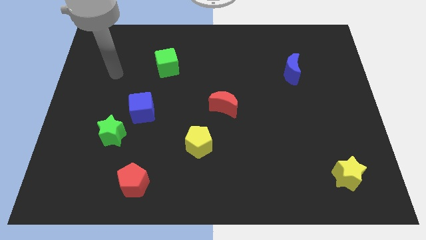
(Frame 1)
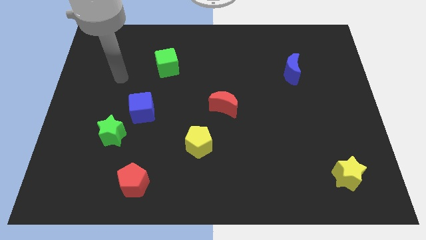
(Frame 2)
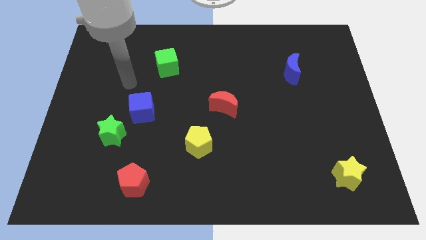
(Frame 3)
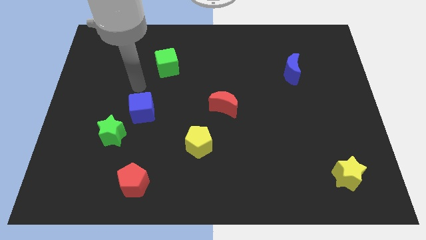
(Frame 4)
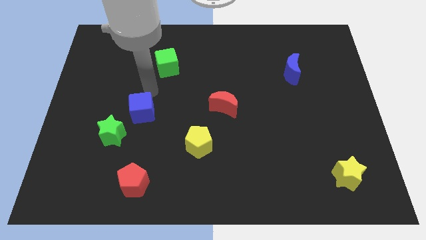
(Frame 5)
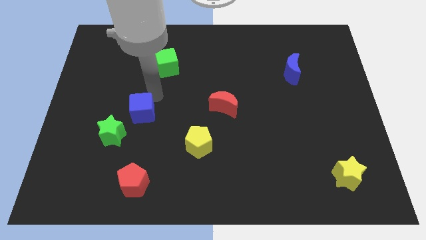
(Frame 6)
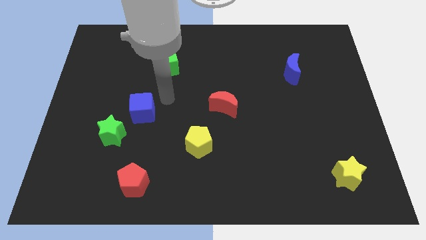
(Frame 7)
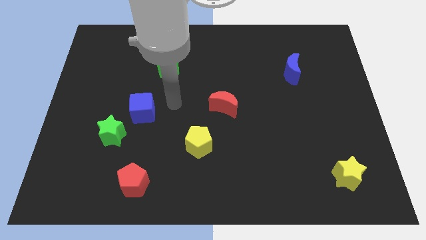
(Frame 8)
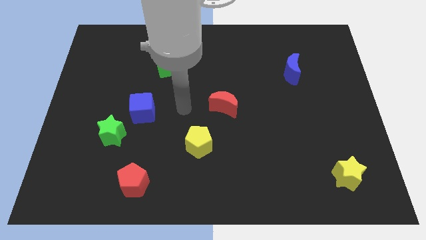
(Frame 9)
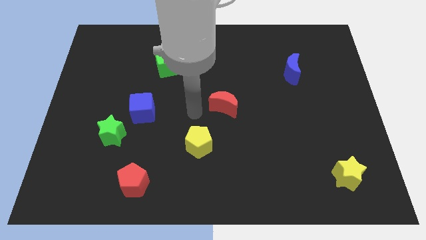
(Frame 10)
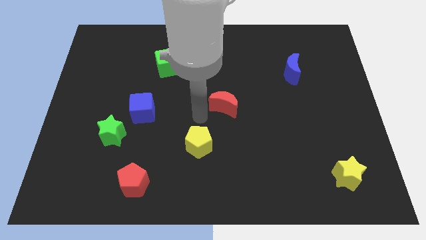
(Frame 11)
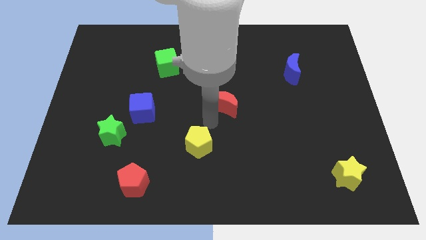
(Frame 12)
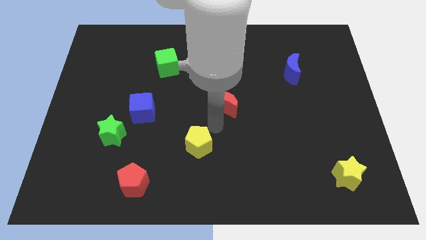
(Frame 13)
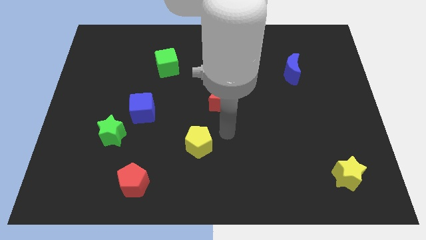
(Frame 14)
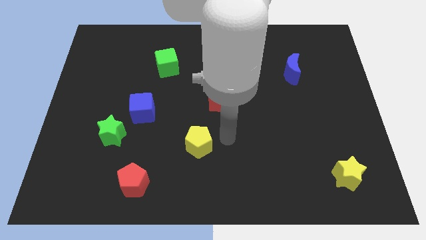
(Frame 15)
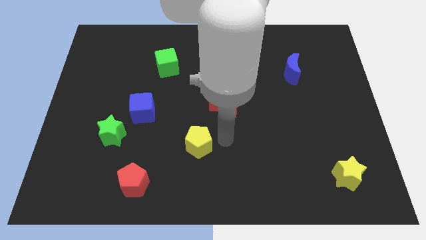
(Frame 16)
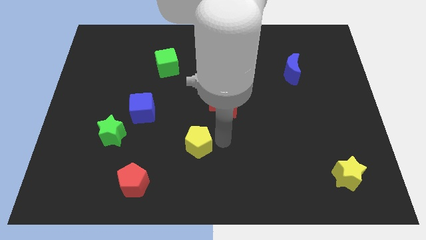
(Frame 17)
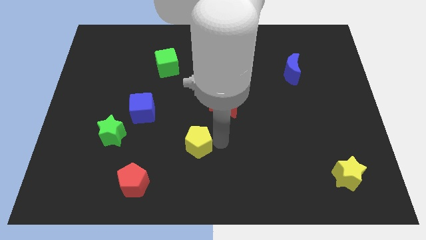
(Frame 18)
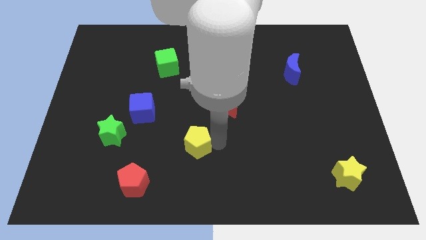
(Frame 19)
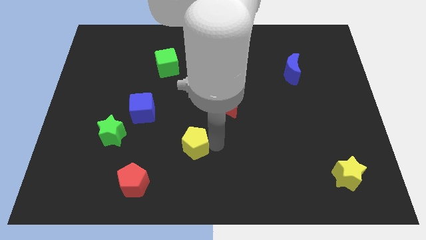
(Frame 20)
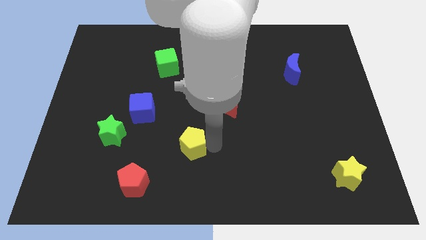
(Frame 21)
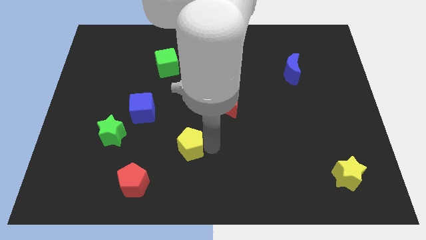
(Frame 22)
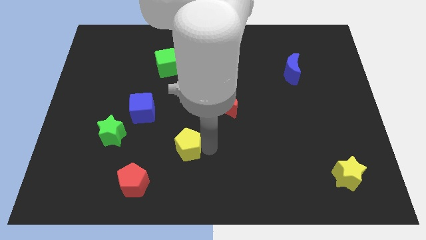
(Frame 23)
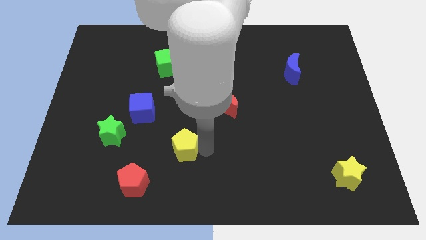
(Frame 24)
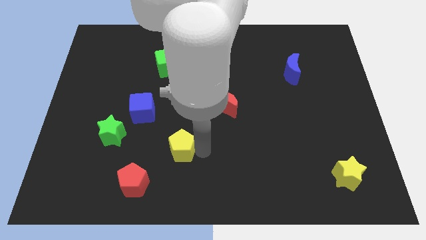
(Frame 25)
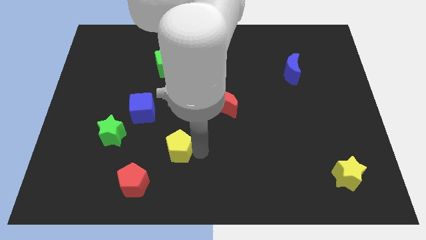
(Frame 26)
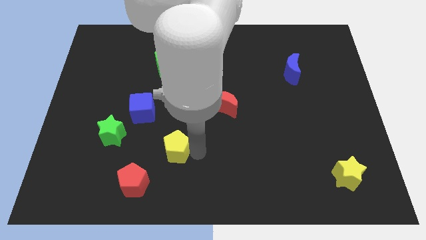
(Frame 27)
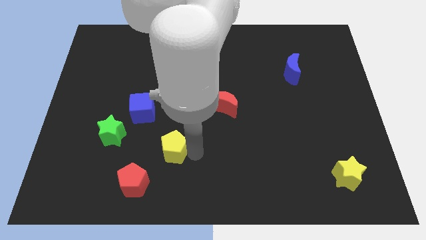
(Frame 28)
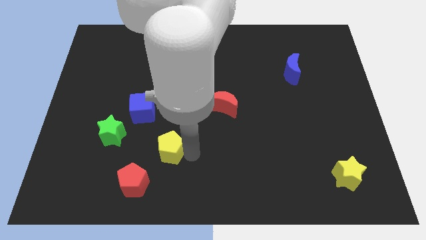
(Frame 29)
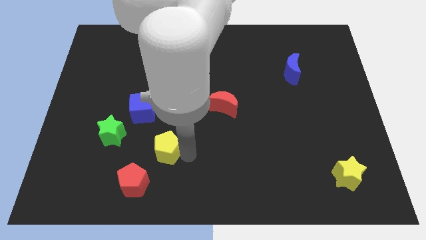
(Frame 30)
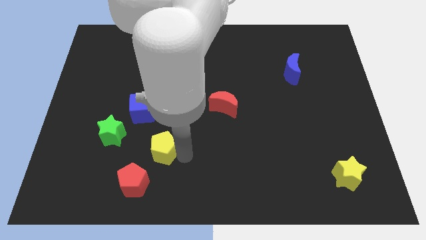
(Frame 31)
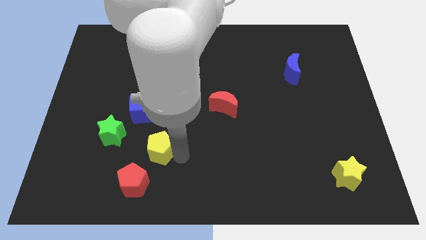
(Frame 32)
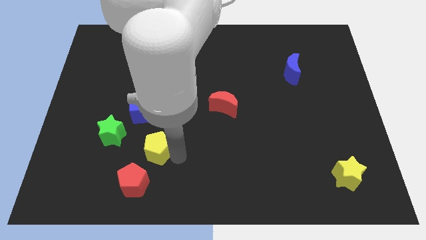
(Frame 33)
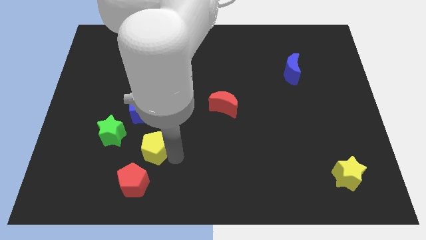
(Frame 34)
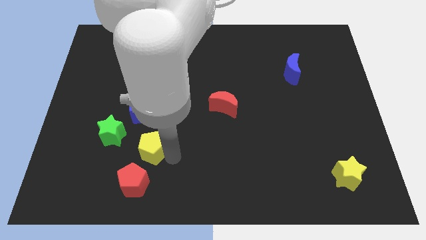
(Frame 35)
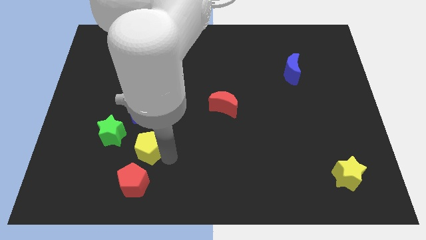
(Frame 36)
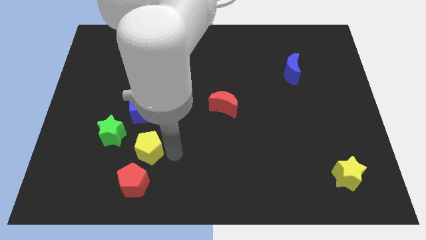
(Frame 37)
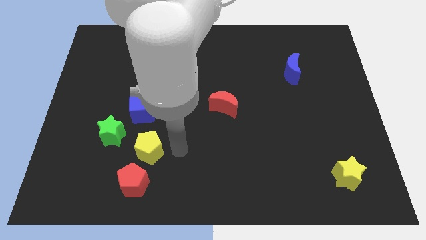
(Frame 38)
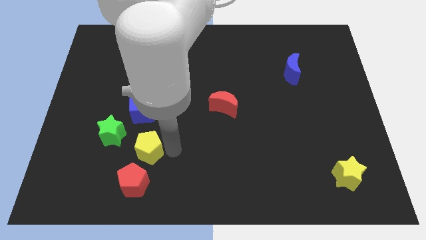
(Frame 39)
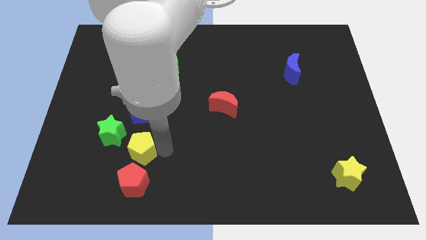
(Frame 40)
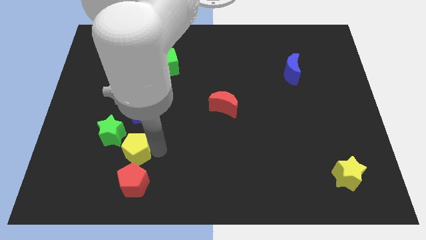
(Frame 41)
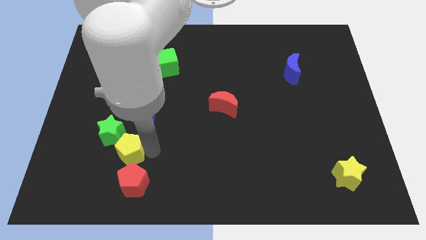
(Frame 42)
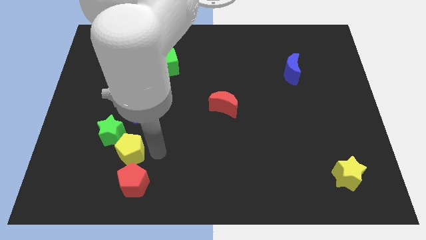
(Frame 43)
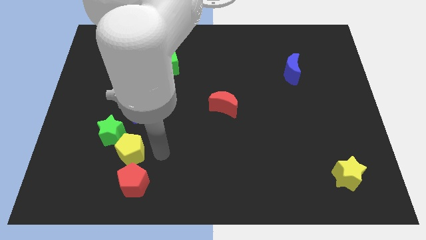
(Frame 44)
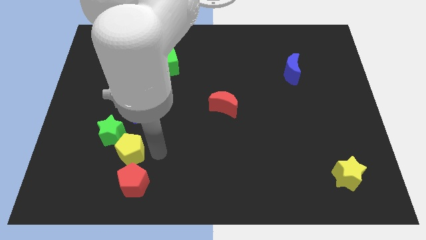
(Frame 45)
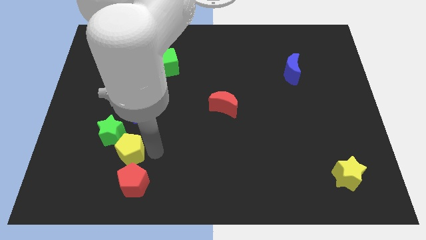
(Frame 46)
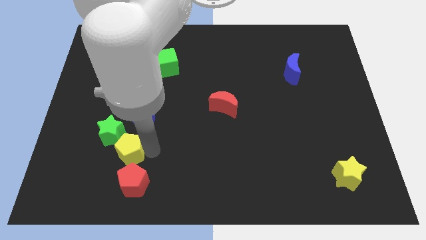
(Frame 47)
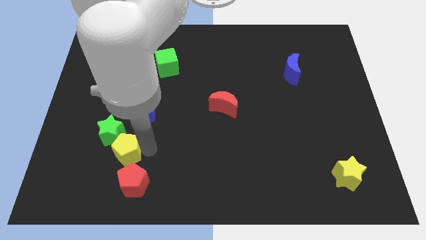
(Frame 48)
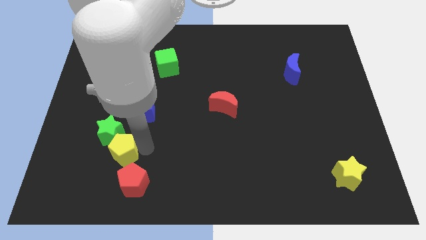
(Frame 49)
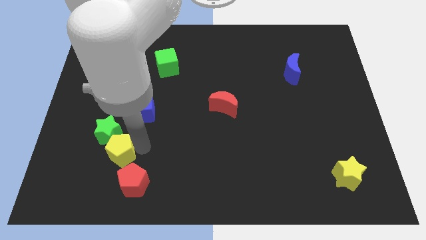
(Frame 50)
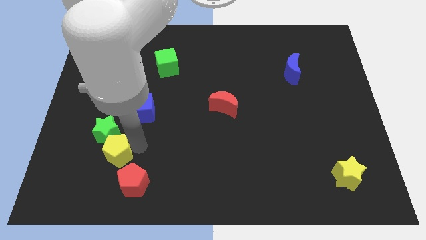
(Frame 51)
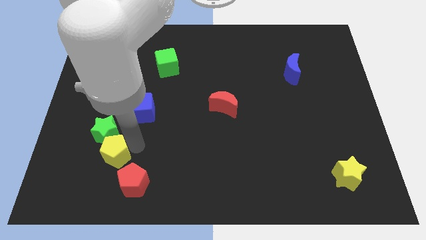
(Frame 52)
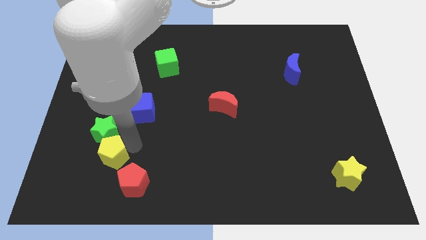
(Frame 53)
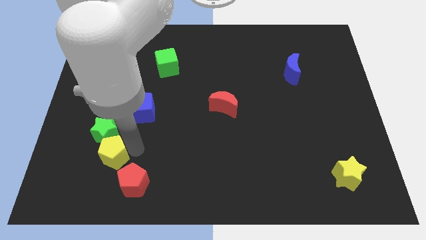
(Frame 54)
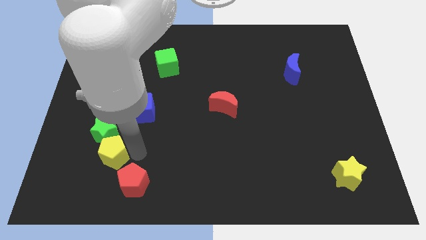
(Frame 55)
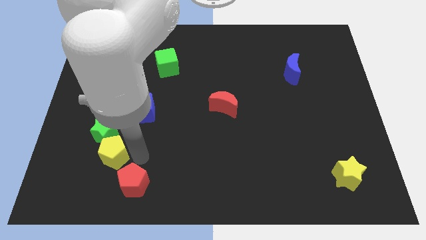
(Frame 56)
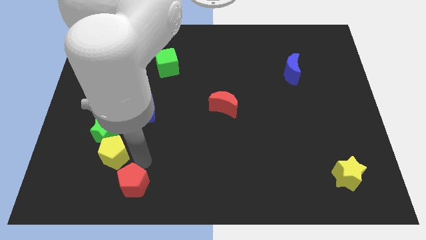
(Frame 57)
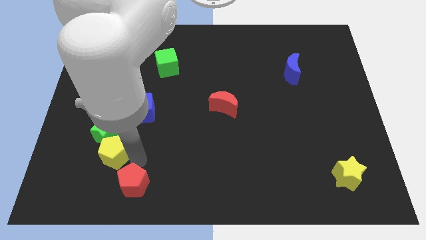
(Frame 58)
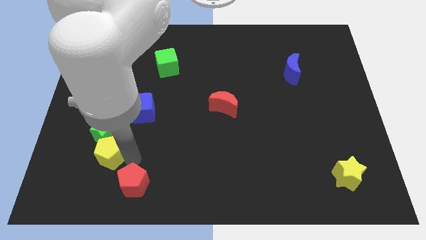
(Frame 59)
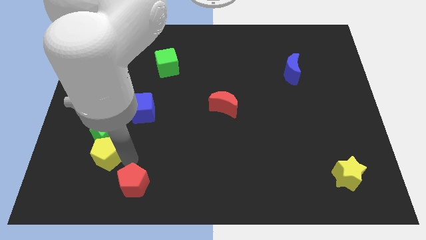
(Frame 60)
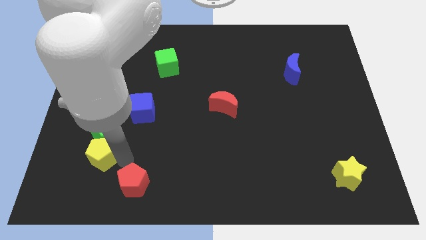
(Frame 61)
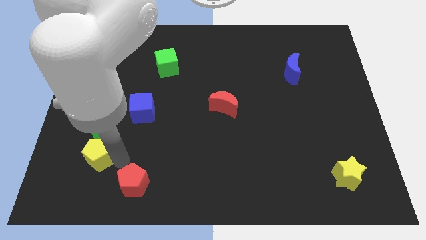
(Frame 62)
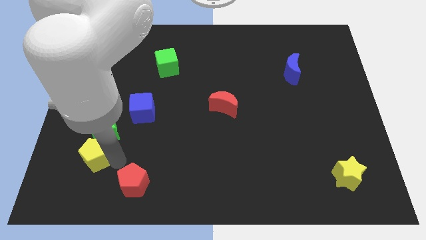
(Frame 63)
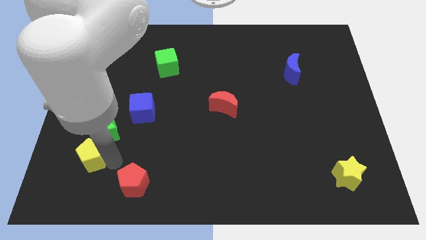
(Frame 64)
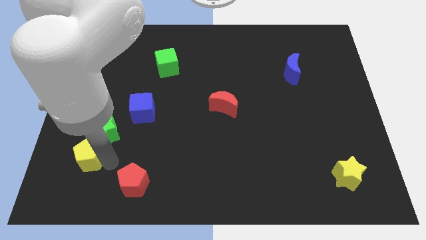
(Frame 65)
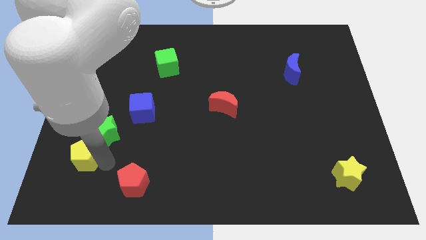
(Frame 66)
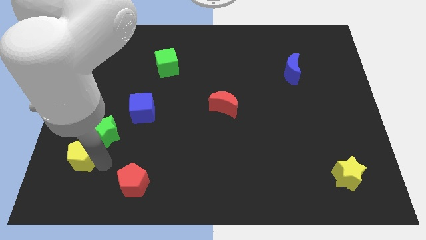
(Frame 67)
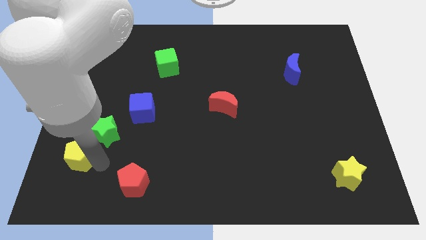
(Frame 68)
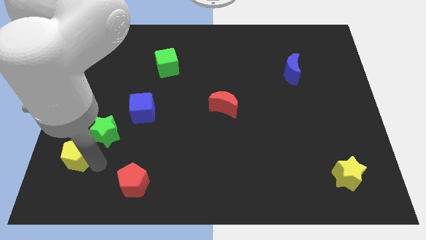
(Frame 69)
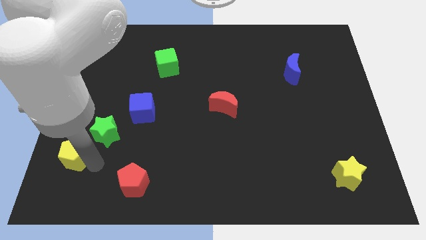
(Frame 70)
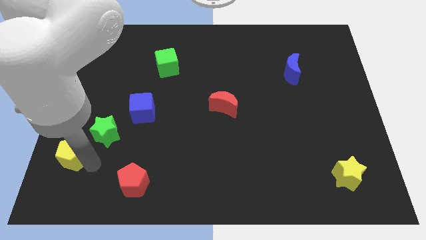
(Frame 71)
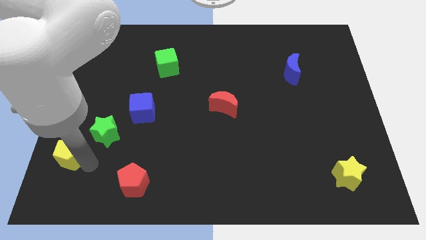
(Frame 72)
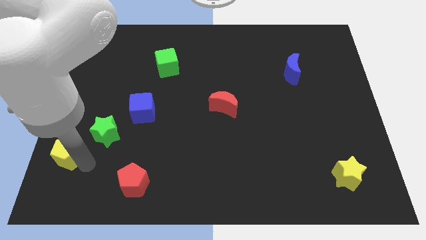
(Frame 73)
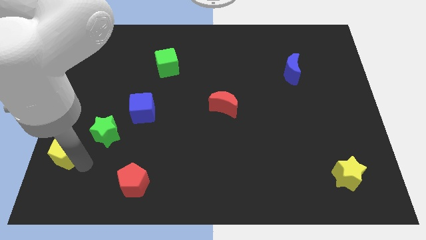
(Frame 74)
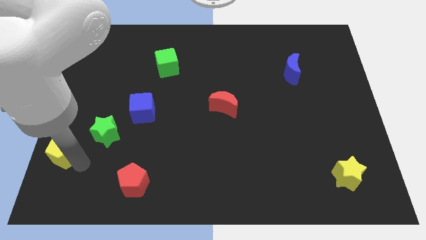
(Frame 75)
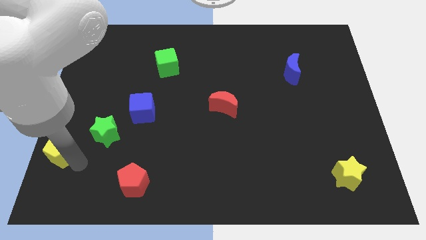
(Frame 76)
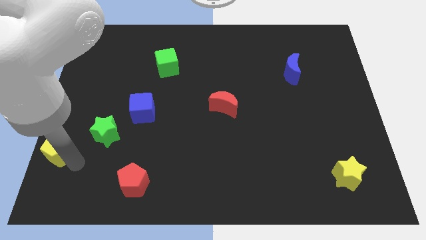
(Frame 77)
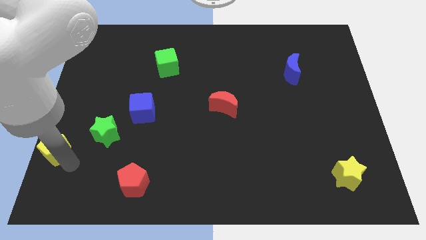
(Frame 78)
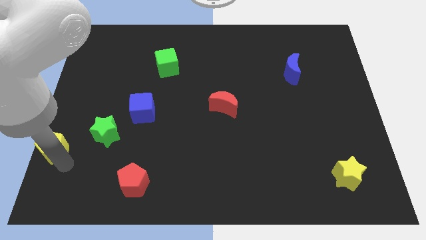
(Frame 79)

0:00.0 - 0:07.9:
slide the yellow pentagon to the center left
